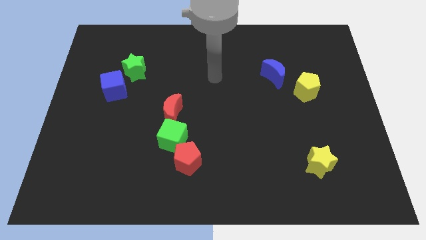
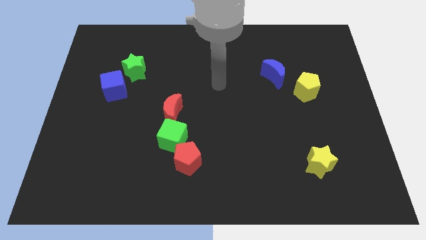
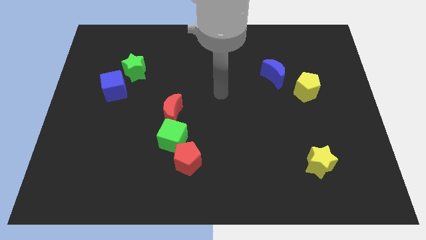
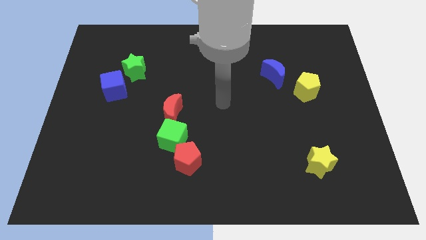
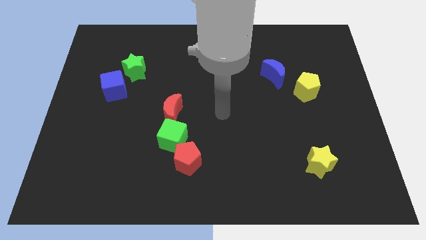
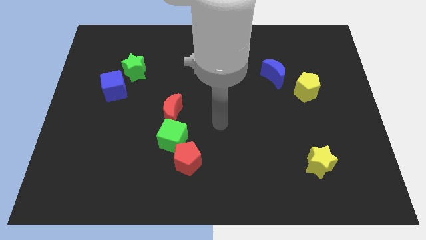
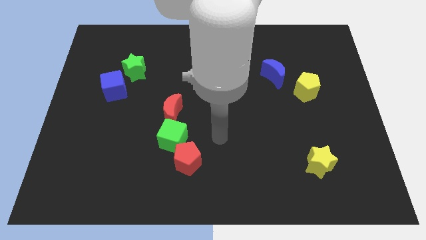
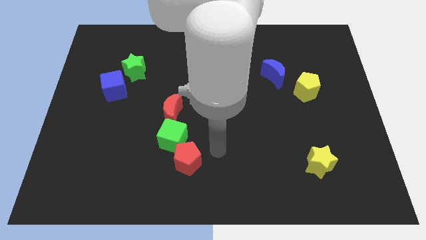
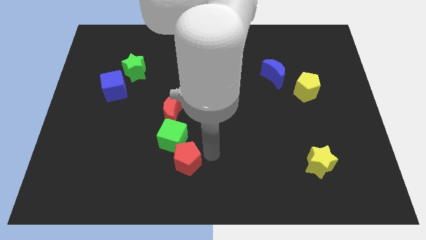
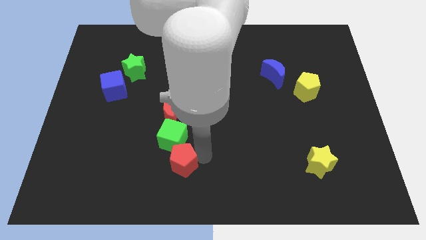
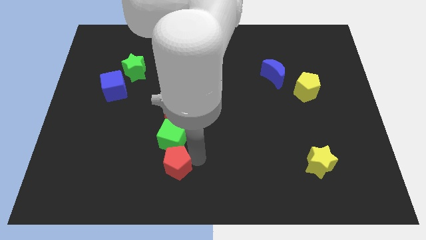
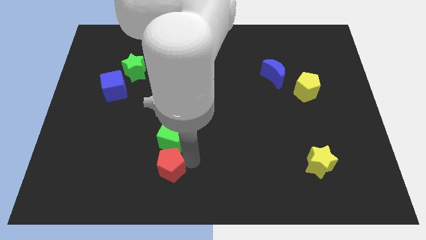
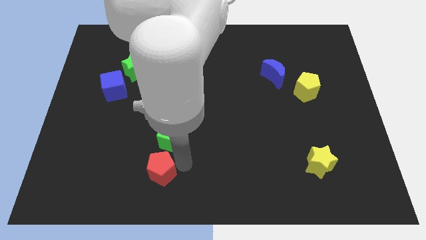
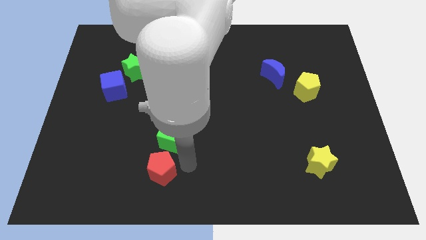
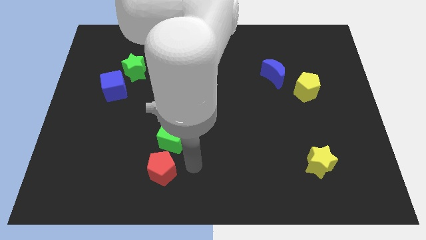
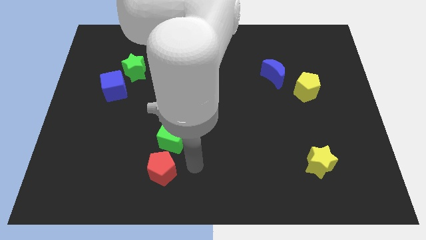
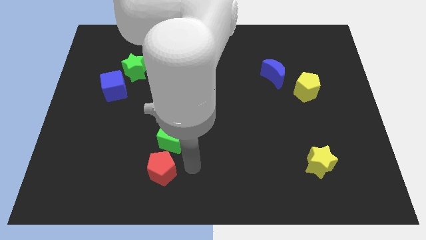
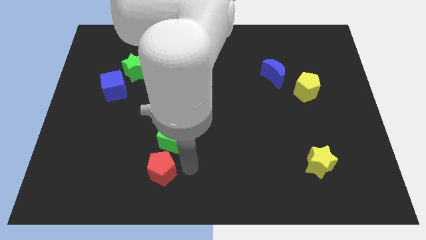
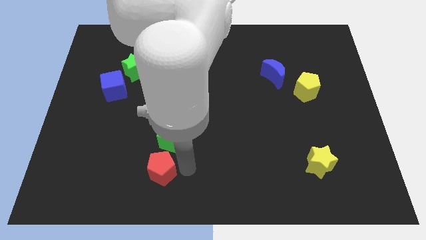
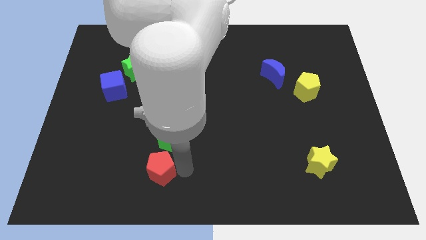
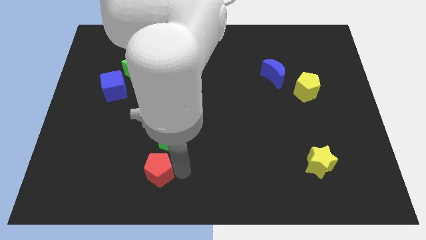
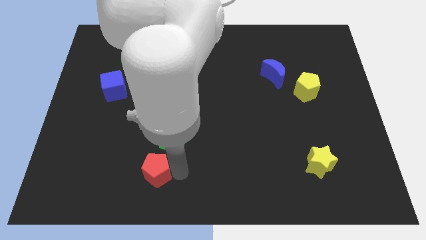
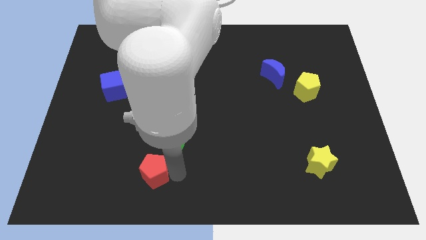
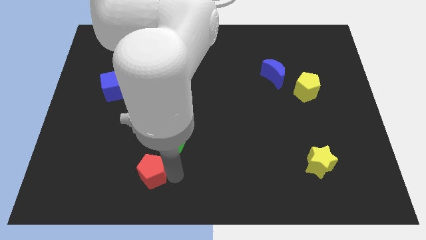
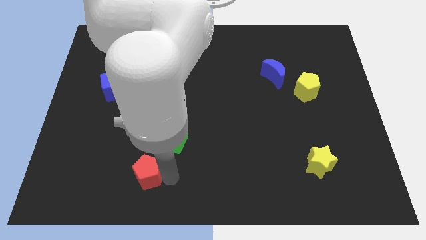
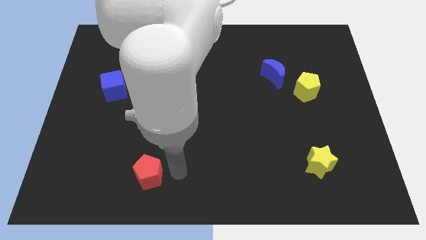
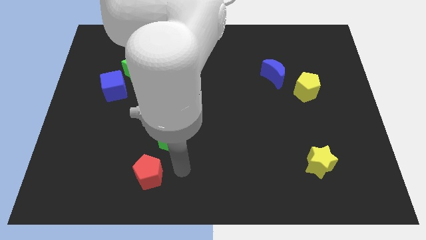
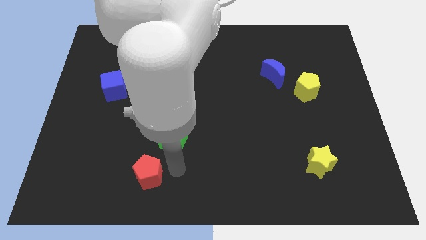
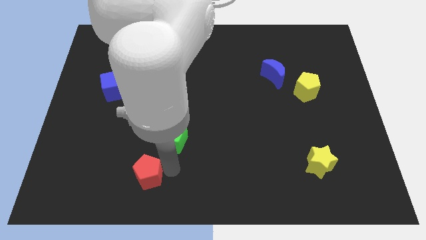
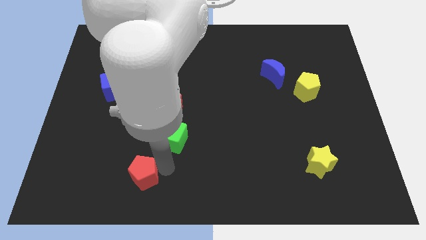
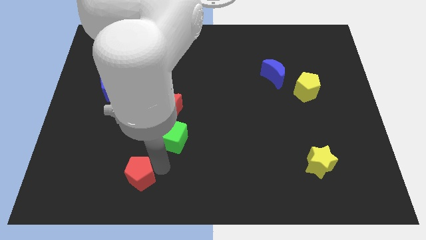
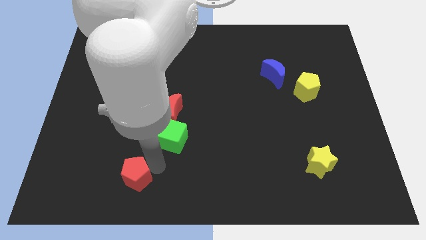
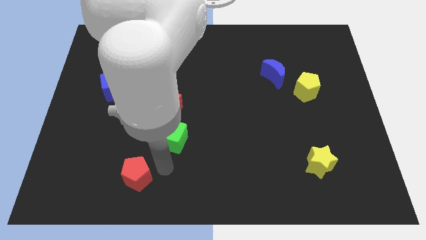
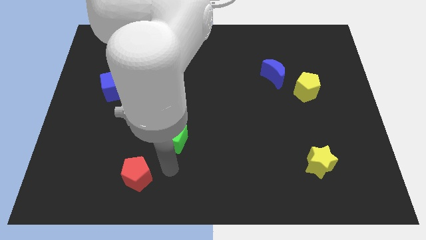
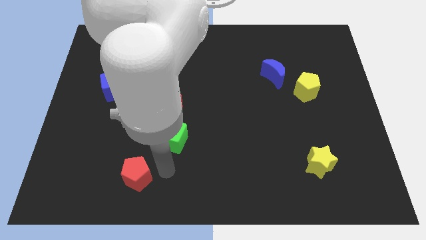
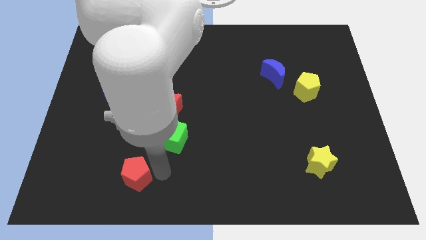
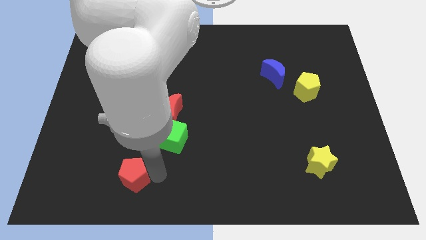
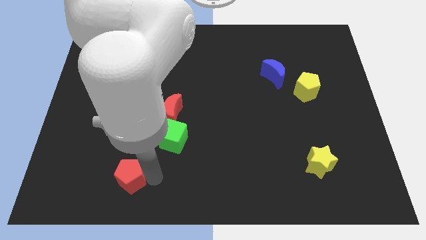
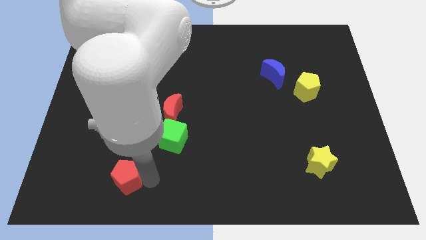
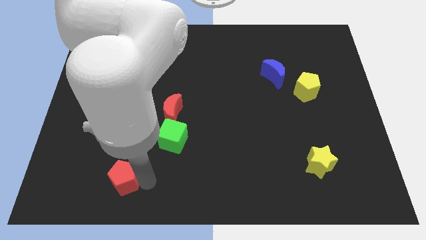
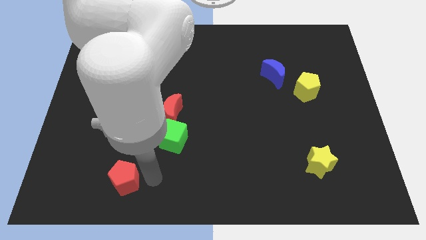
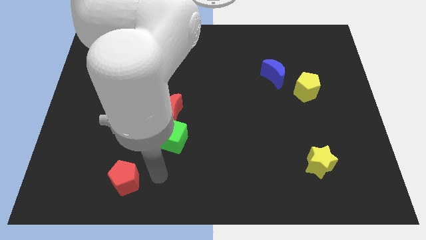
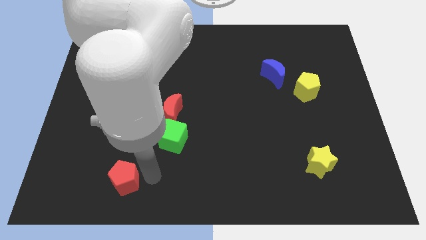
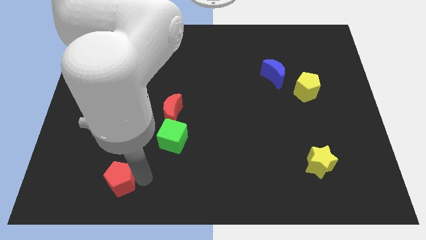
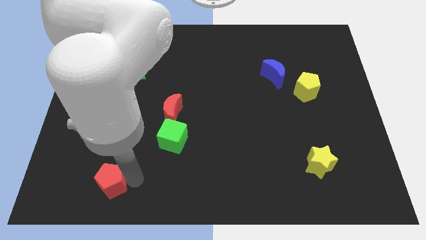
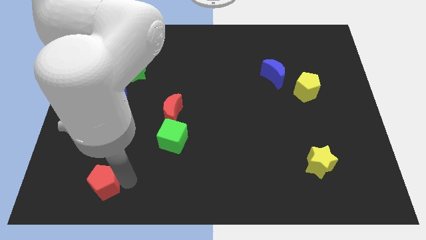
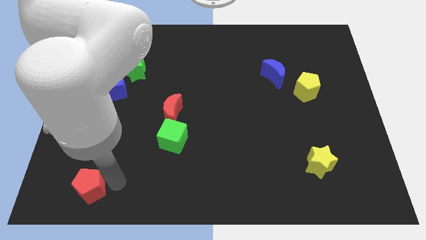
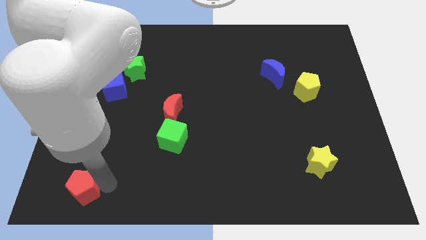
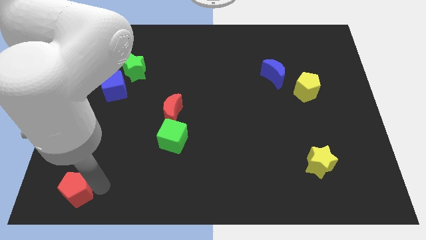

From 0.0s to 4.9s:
move the red pentagon to the lower left corner

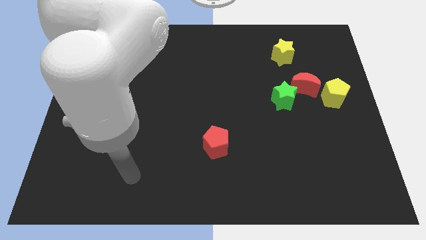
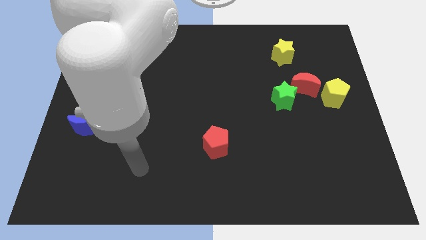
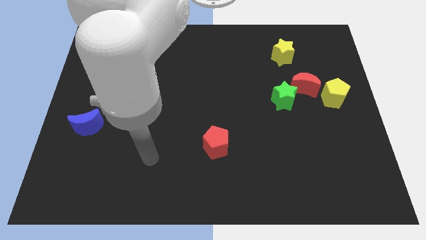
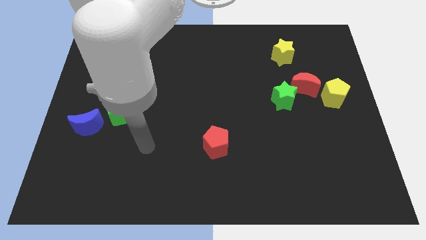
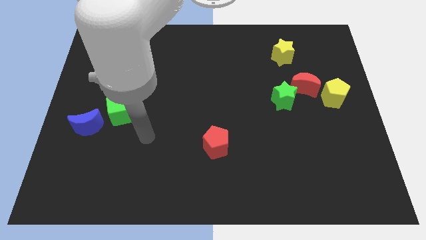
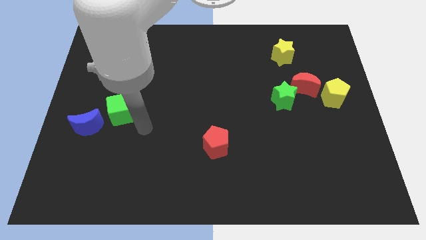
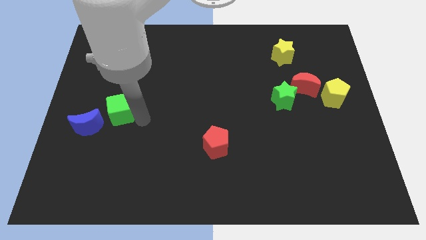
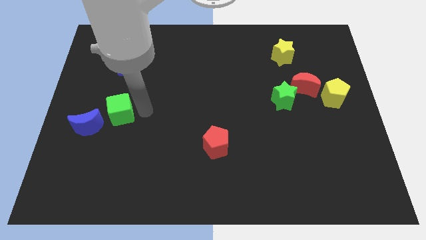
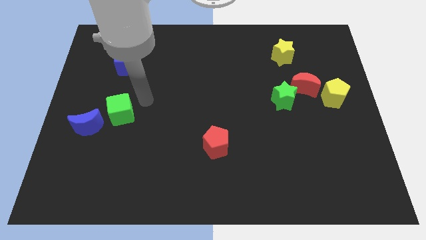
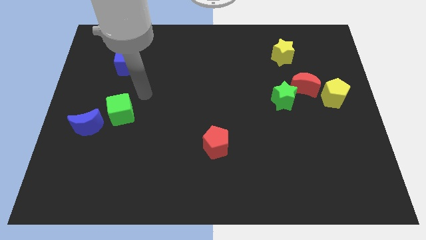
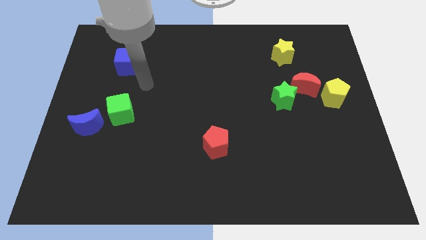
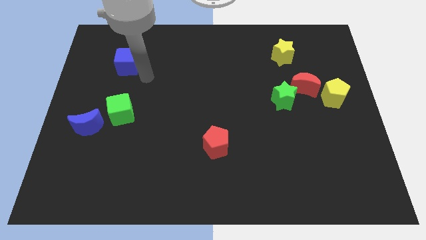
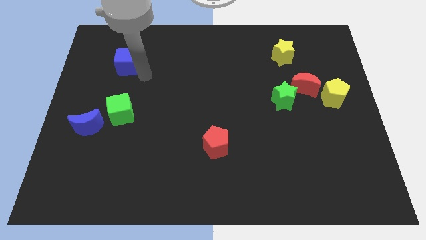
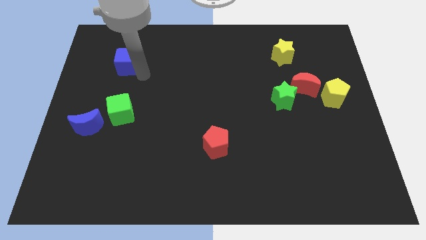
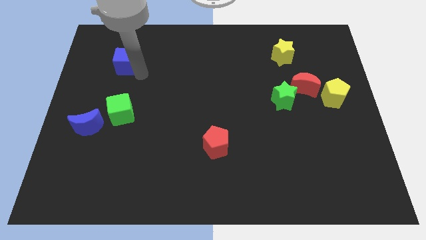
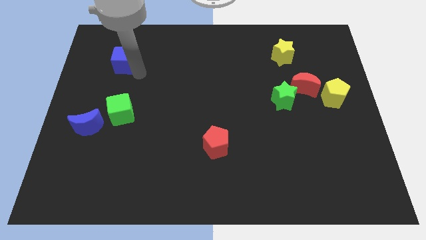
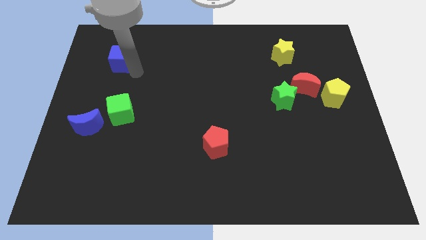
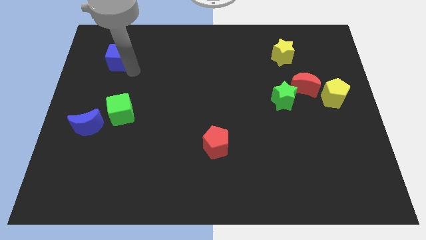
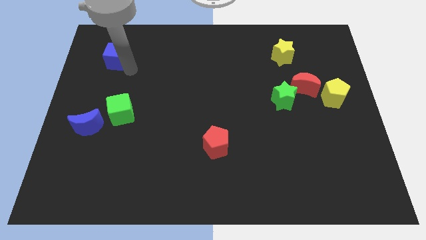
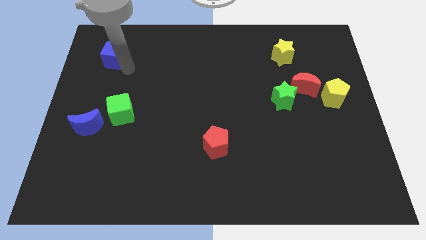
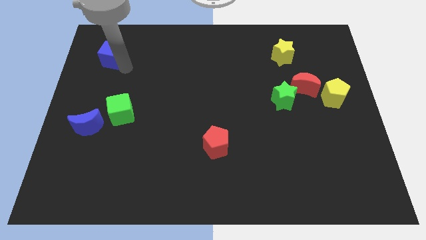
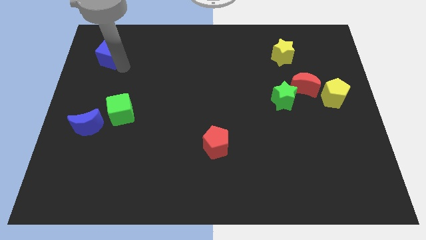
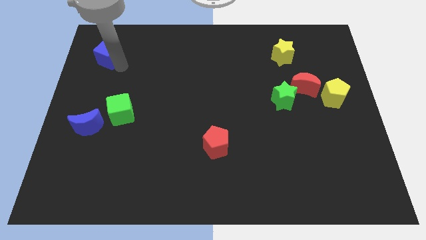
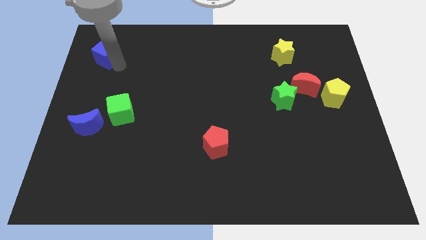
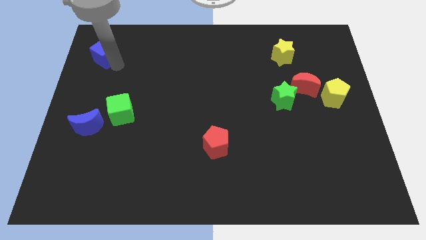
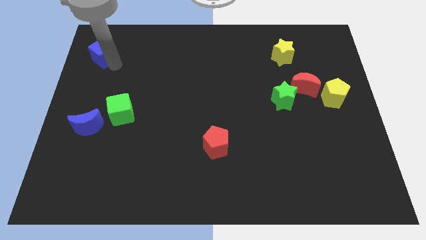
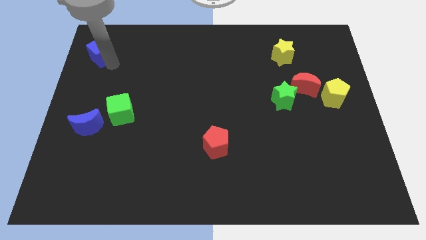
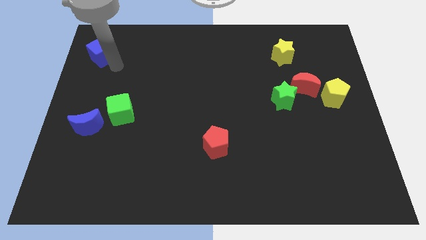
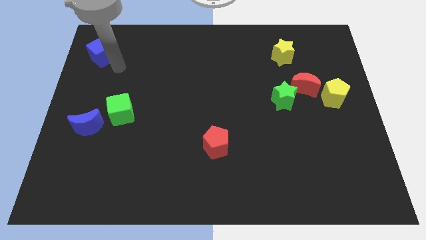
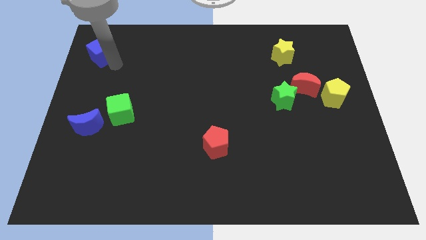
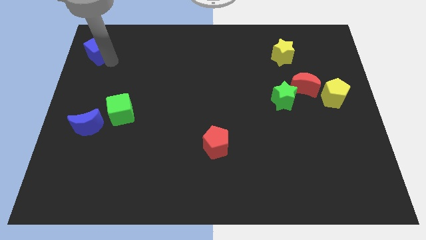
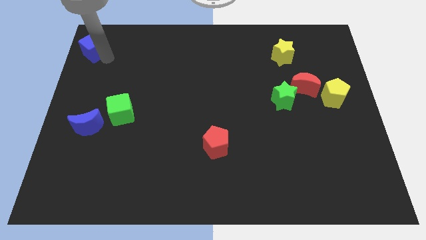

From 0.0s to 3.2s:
slide the blue cube to the upper left corner
